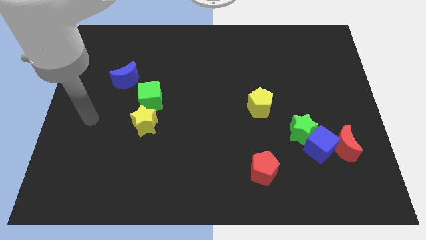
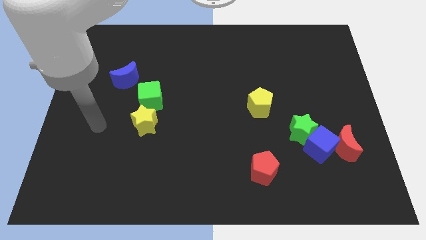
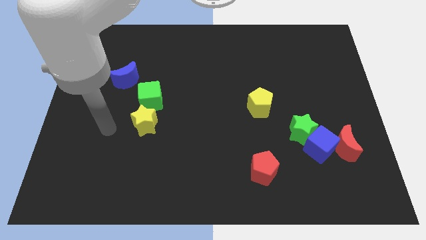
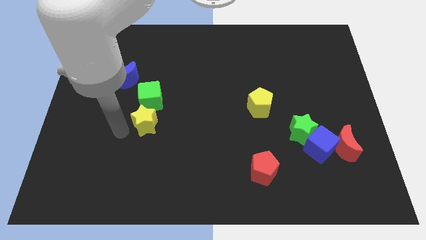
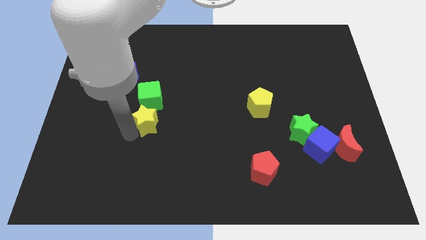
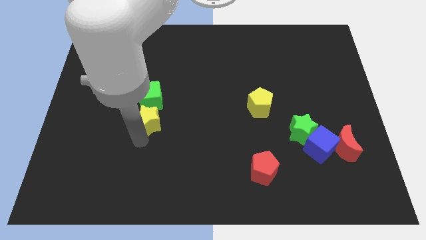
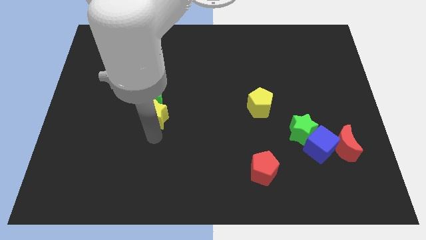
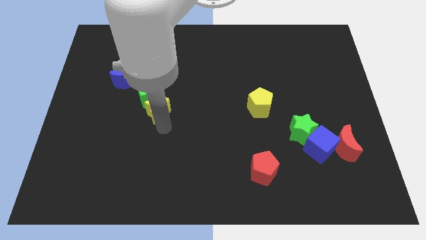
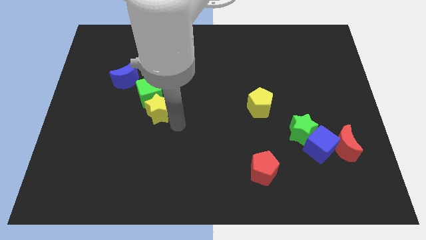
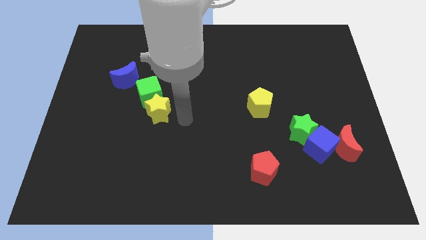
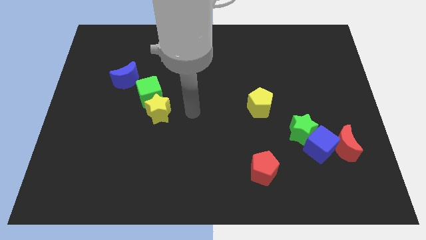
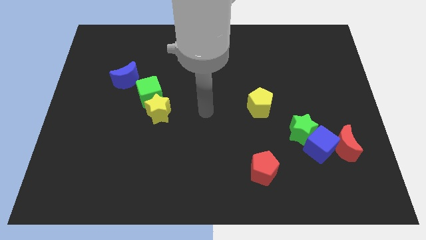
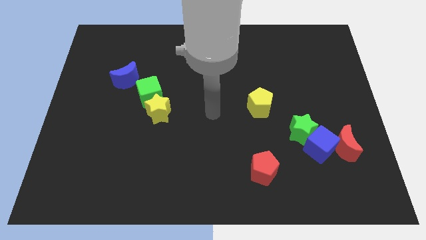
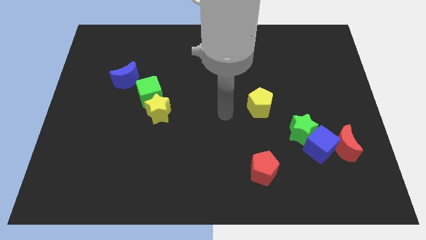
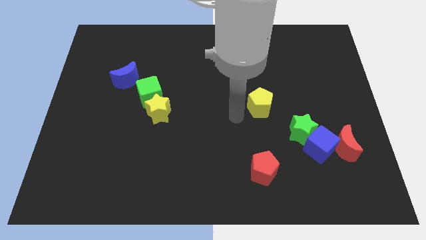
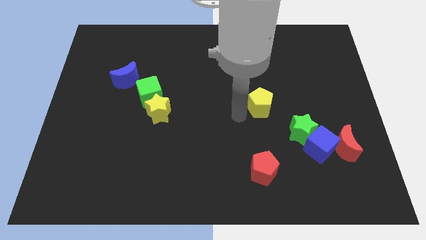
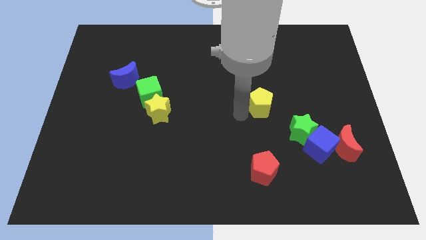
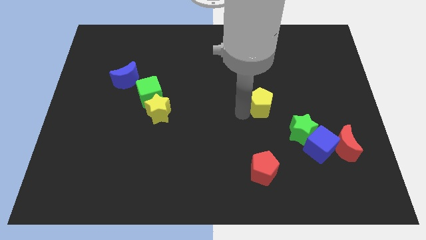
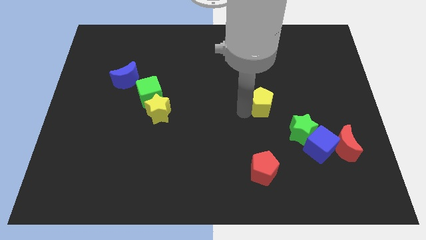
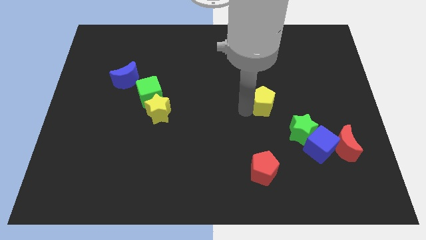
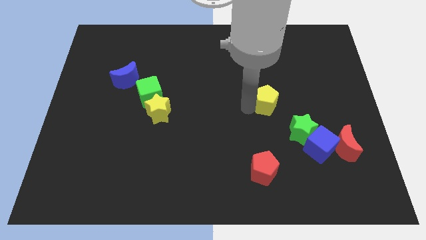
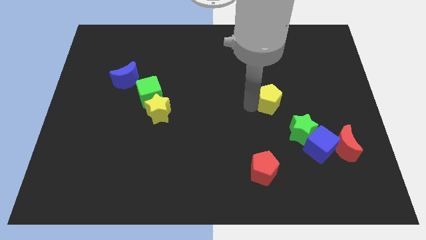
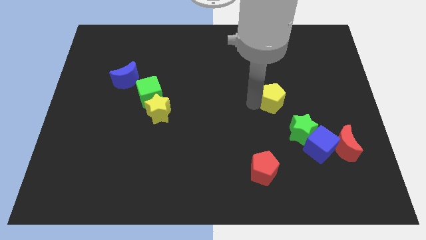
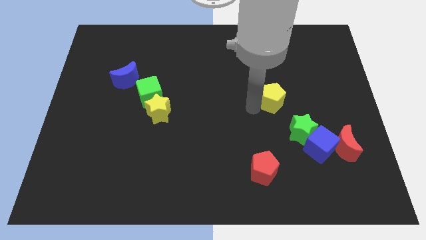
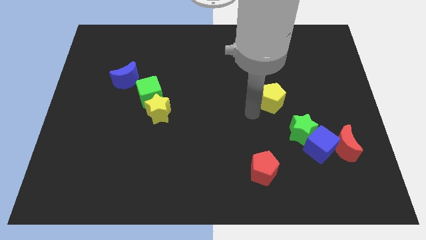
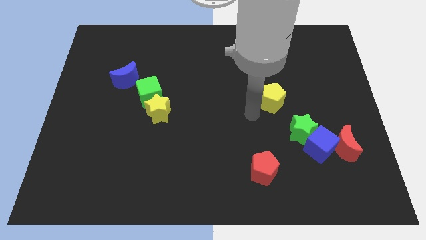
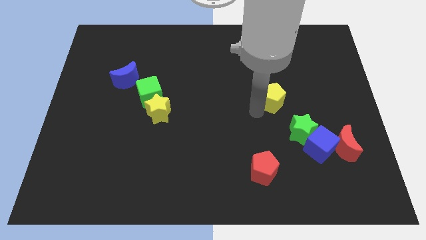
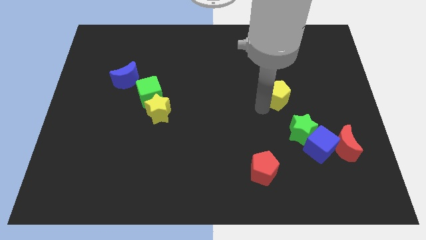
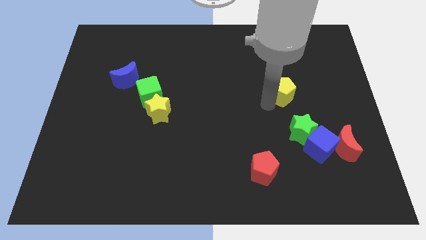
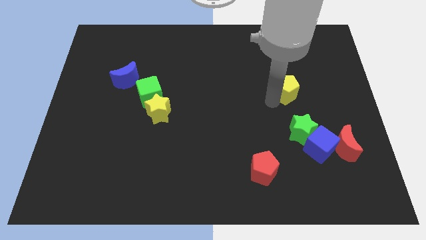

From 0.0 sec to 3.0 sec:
slightly move the yellow pentagon up and to the right diagonally

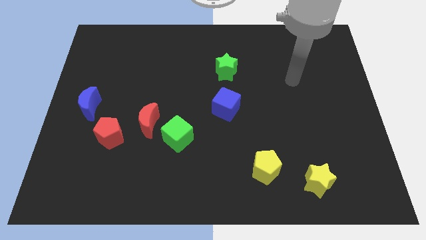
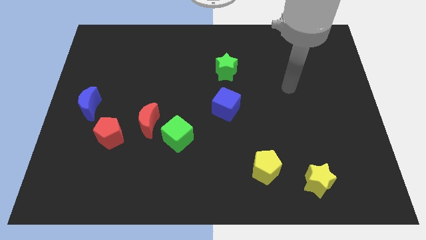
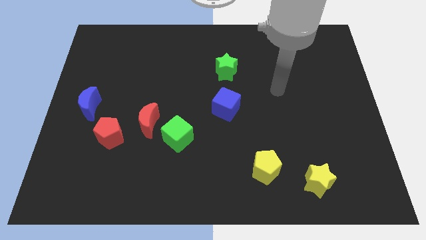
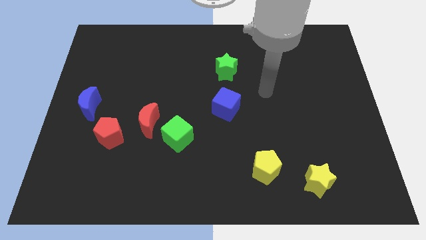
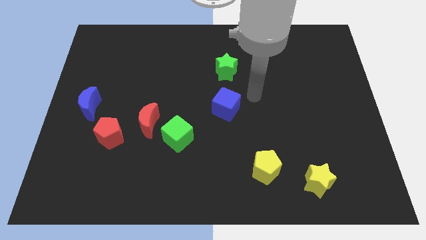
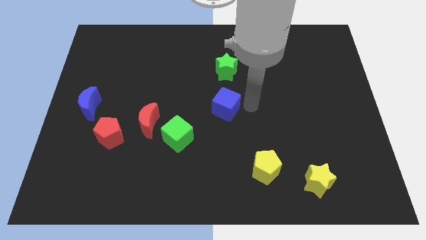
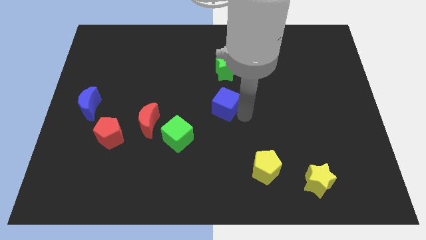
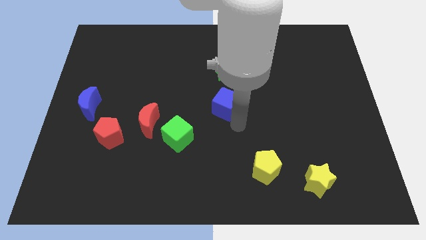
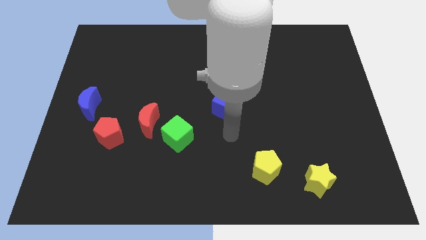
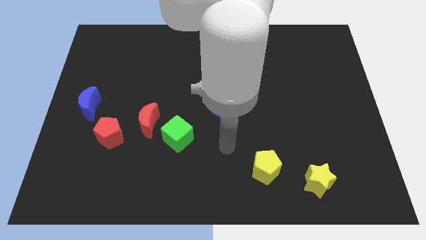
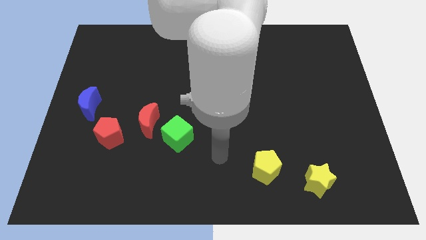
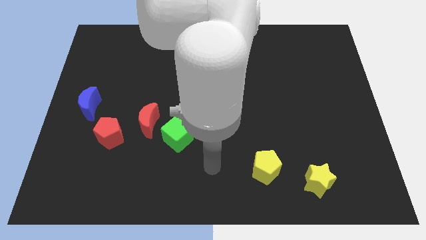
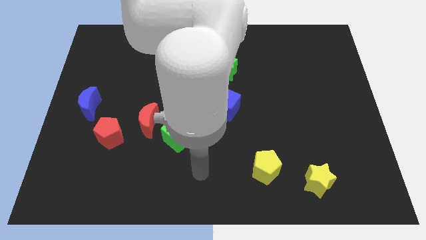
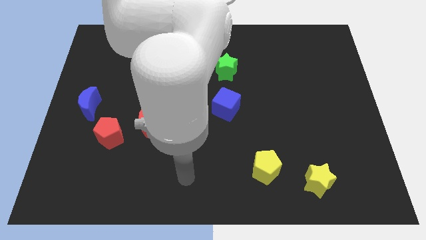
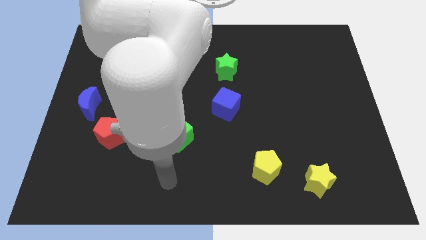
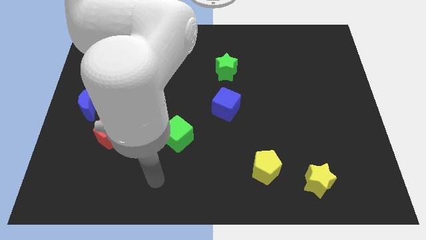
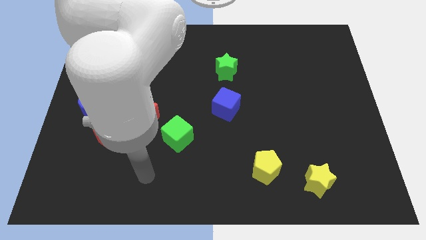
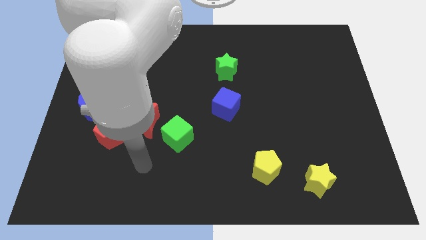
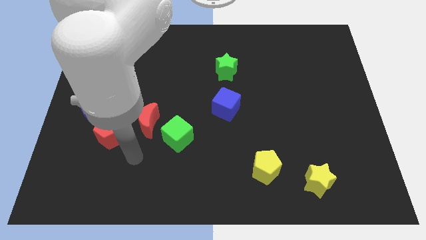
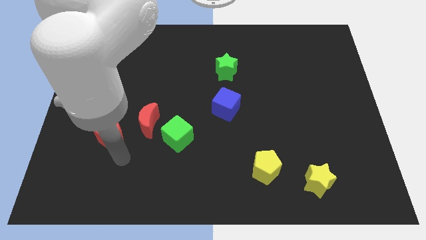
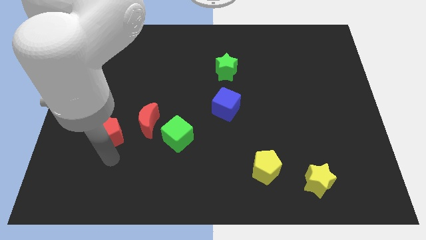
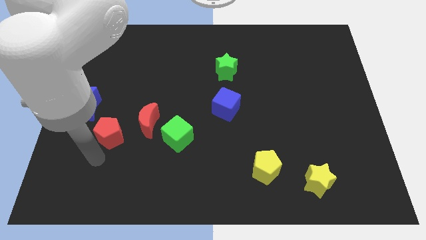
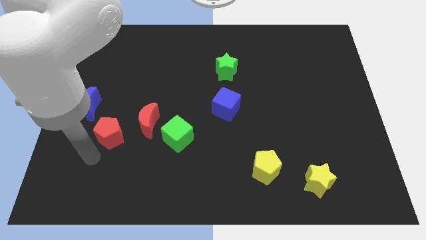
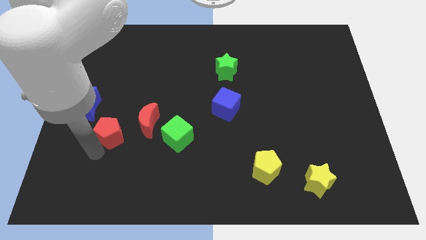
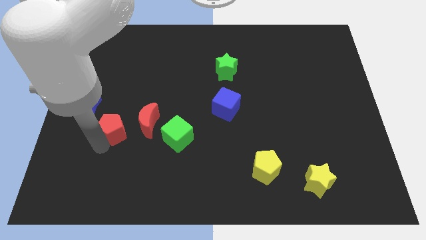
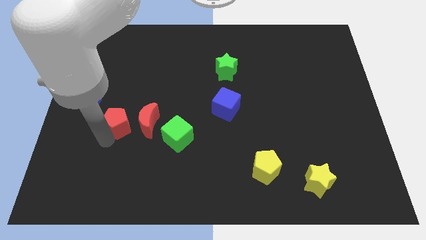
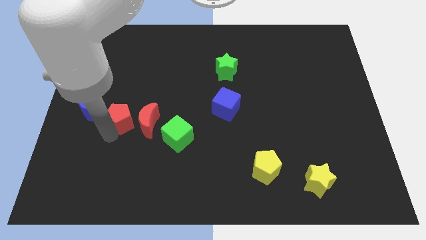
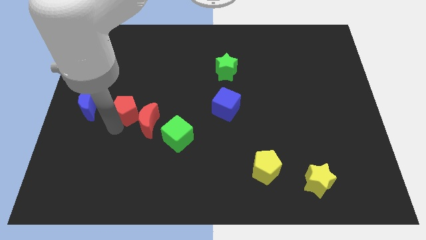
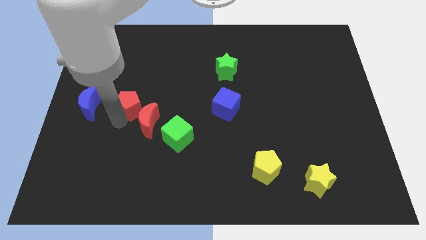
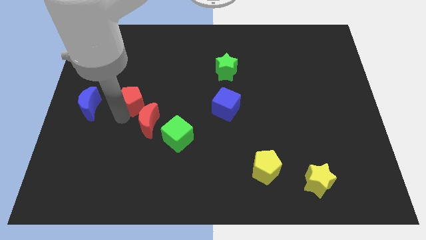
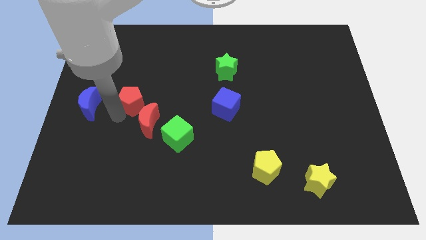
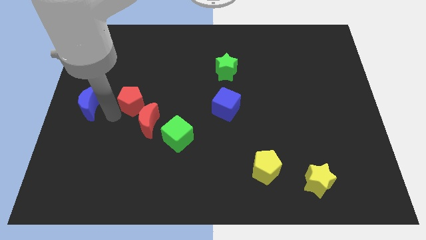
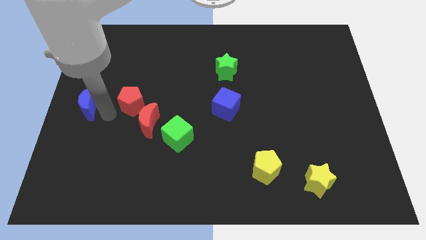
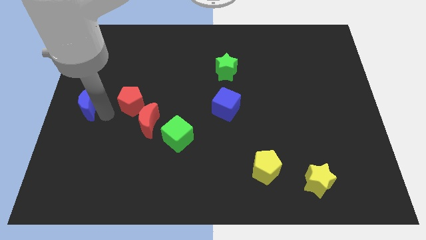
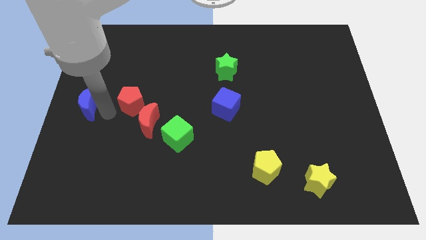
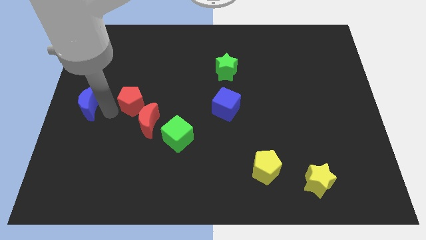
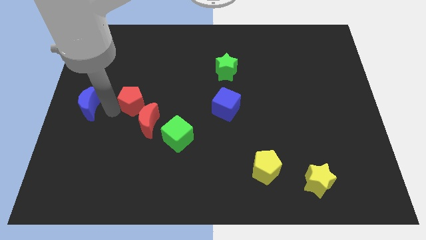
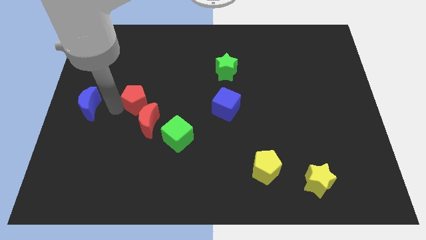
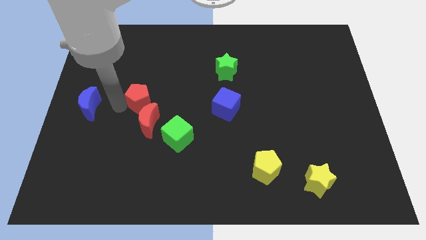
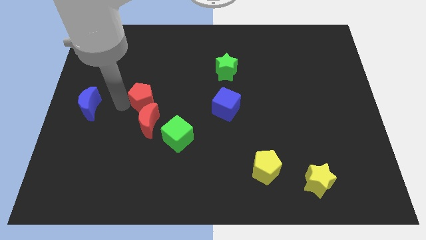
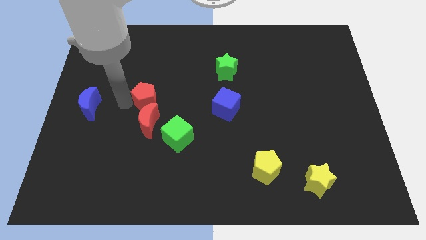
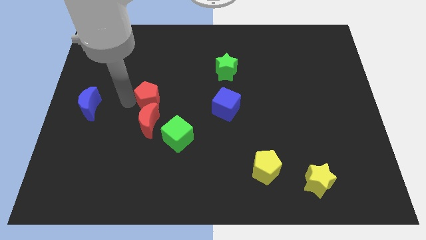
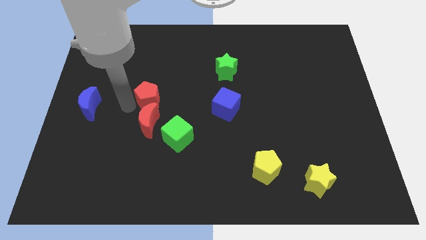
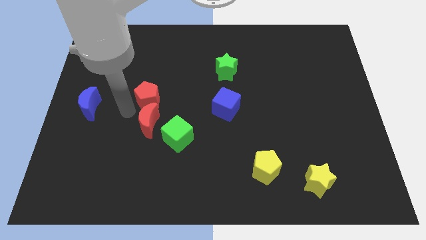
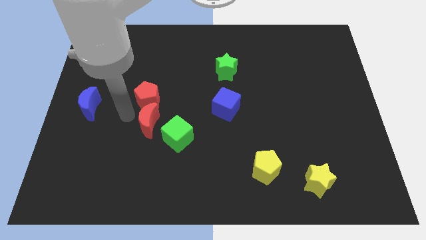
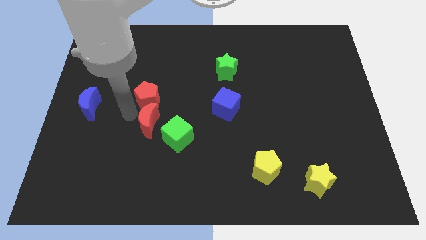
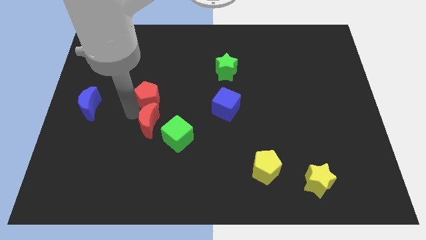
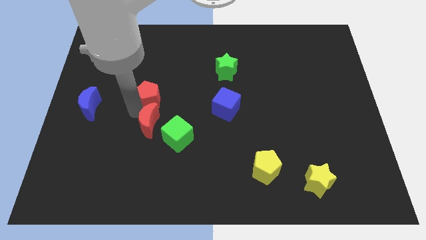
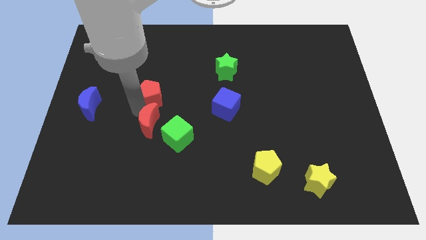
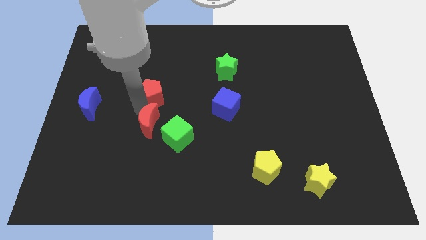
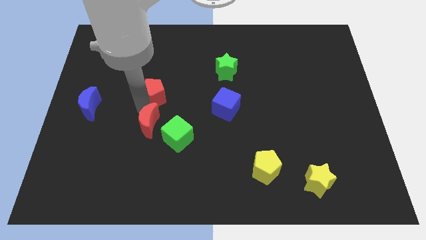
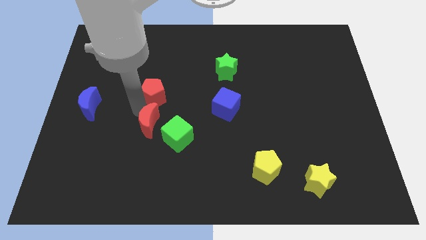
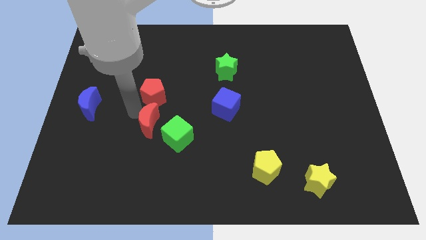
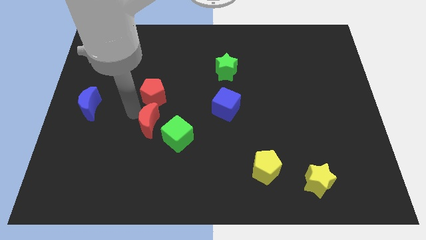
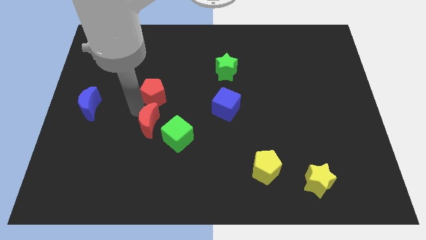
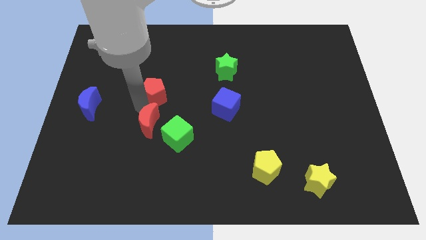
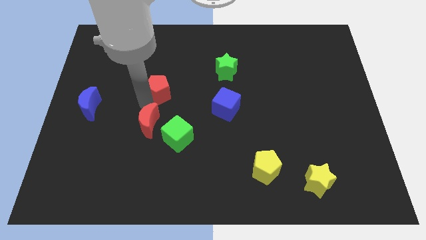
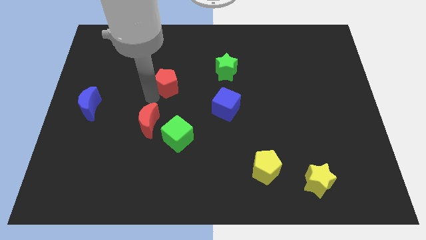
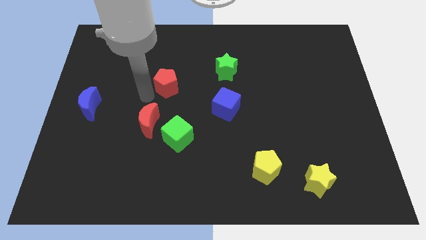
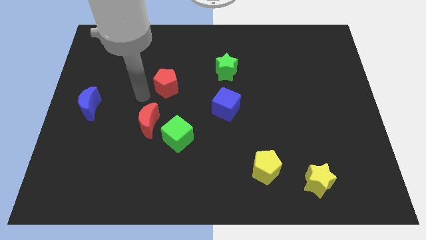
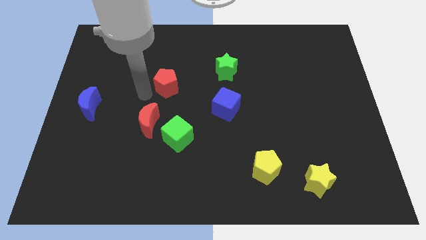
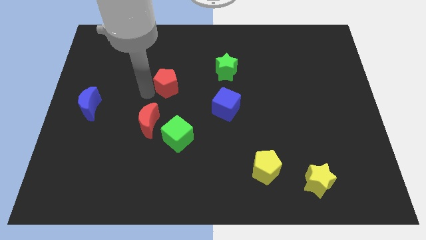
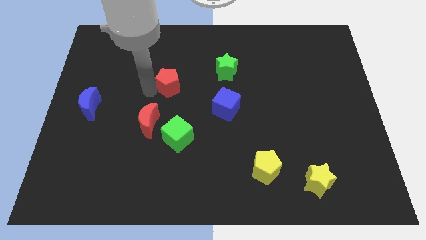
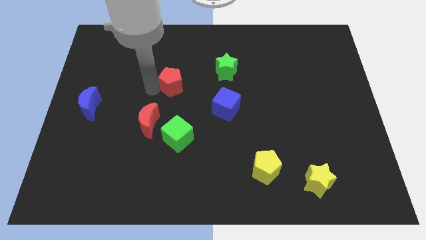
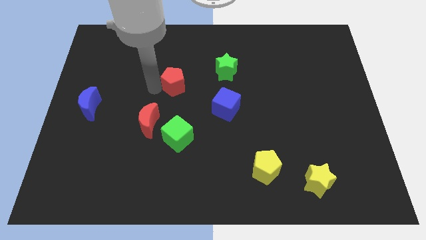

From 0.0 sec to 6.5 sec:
push the red pentagon diagonally up and to the right
